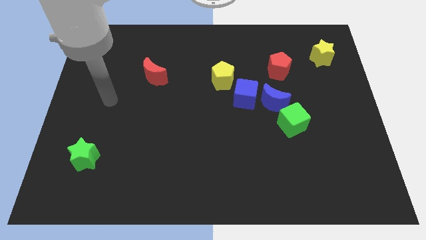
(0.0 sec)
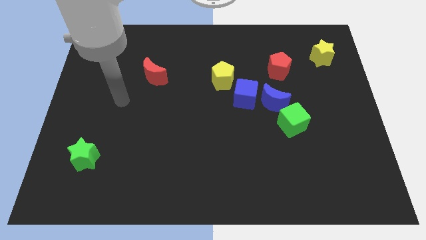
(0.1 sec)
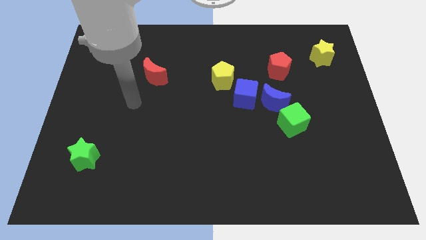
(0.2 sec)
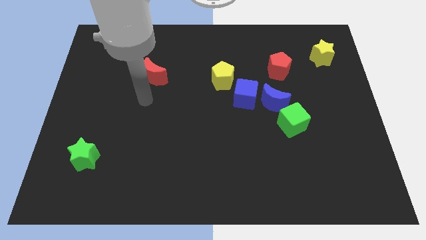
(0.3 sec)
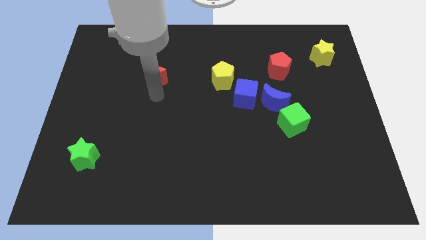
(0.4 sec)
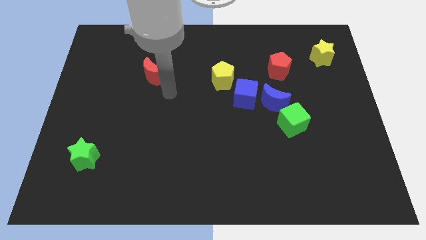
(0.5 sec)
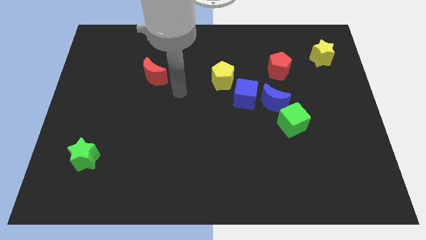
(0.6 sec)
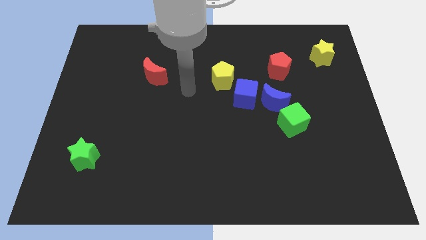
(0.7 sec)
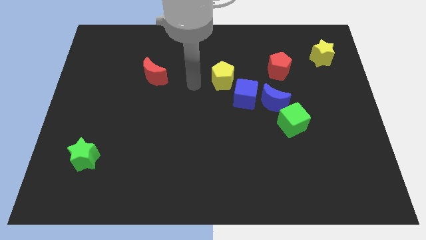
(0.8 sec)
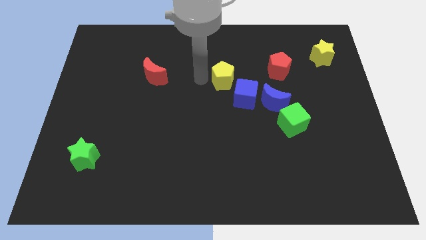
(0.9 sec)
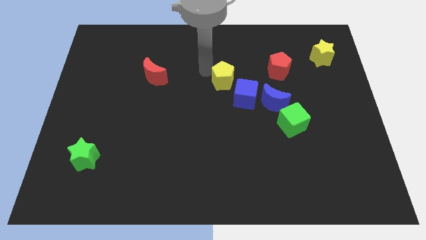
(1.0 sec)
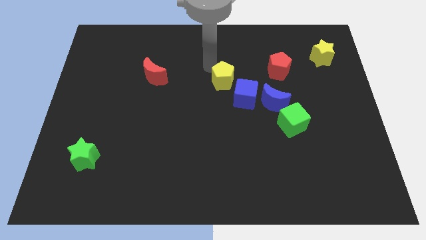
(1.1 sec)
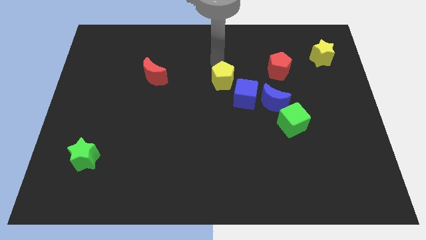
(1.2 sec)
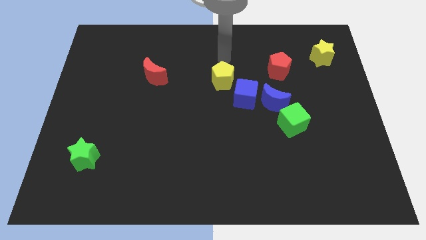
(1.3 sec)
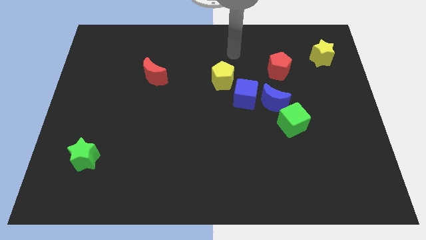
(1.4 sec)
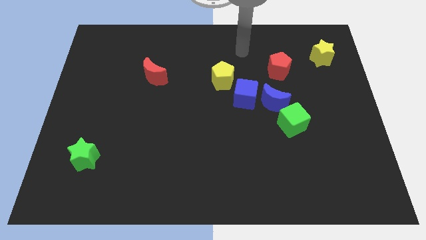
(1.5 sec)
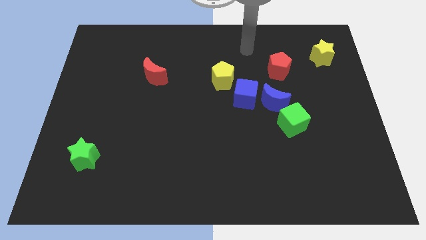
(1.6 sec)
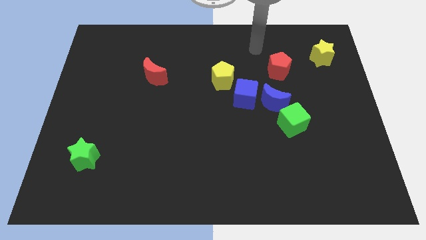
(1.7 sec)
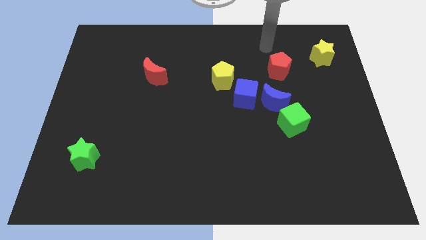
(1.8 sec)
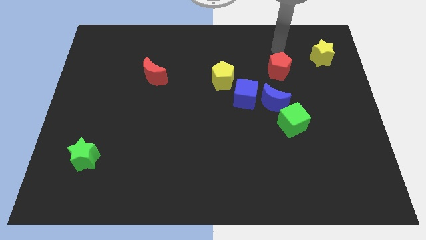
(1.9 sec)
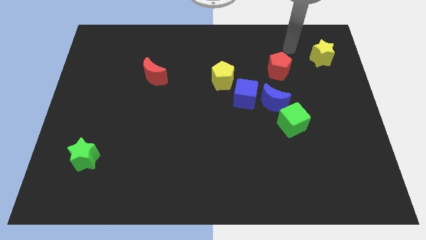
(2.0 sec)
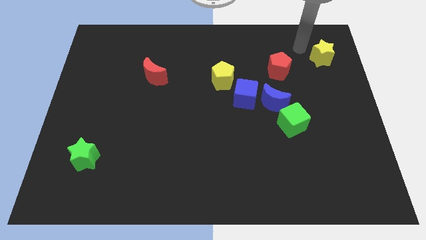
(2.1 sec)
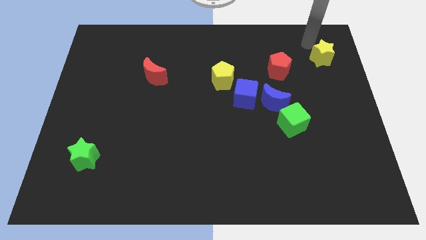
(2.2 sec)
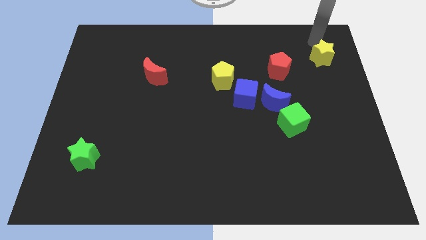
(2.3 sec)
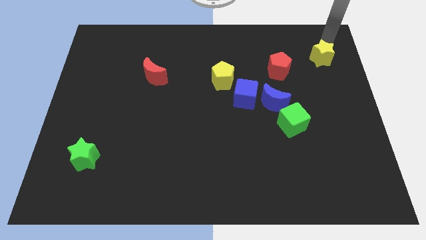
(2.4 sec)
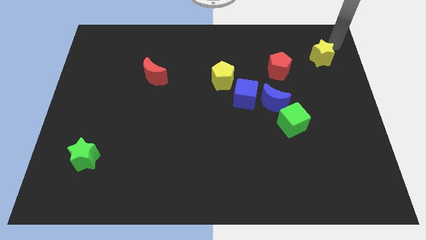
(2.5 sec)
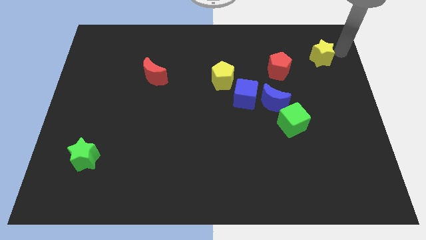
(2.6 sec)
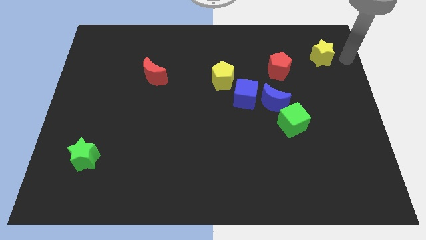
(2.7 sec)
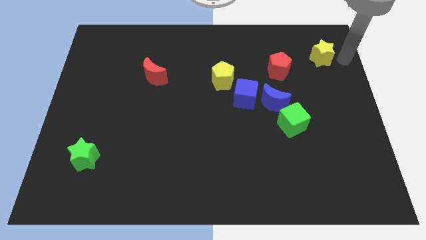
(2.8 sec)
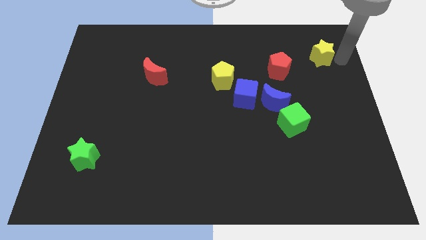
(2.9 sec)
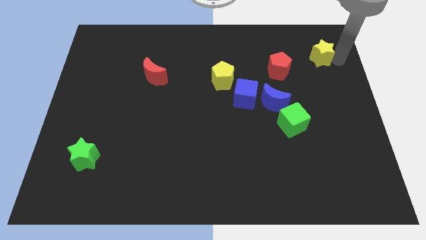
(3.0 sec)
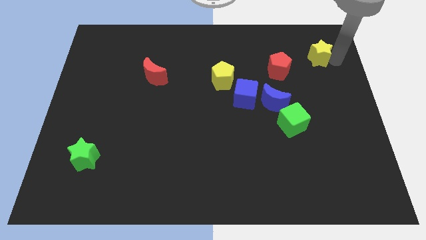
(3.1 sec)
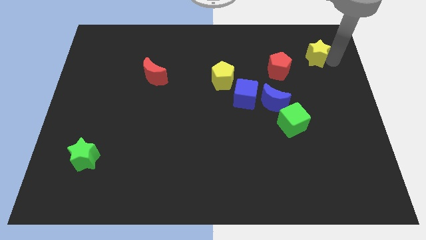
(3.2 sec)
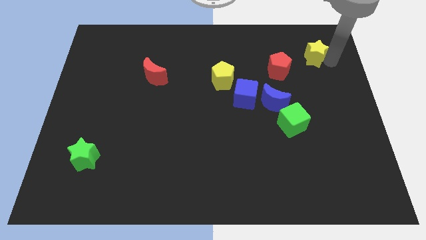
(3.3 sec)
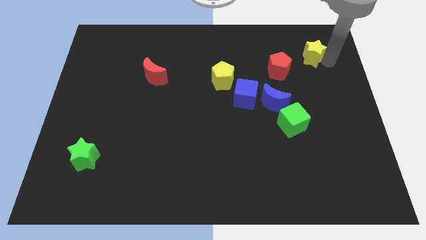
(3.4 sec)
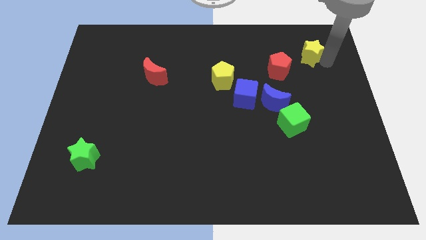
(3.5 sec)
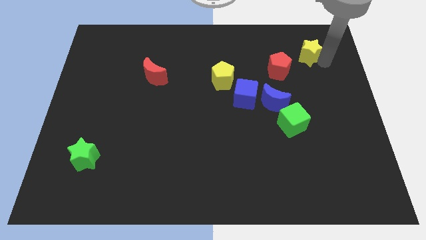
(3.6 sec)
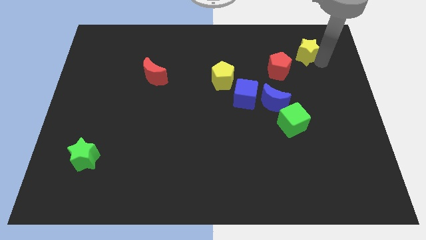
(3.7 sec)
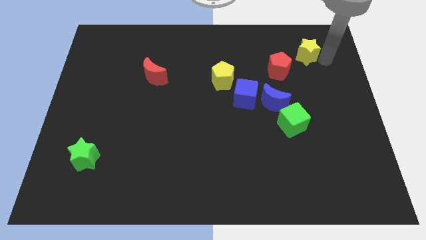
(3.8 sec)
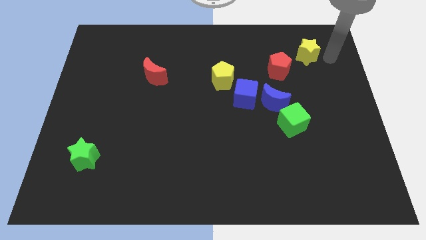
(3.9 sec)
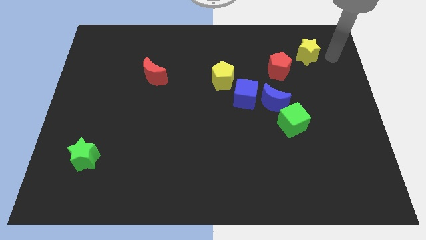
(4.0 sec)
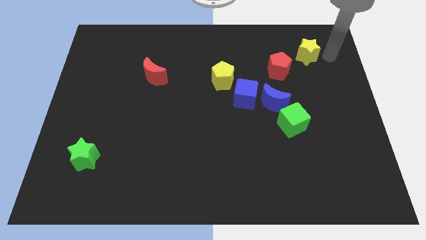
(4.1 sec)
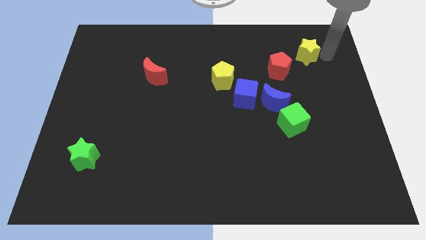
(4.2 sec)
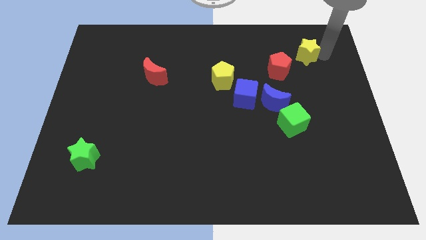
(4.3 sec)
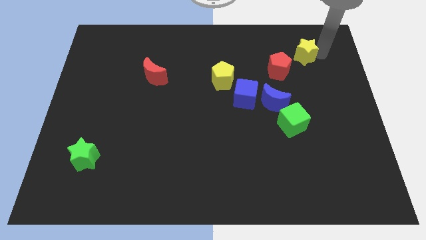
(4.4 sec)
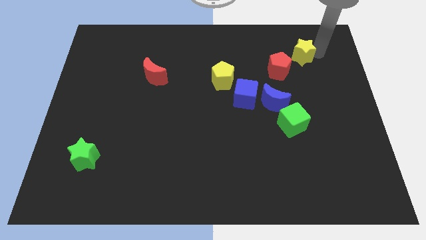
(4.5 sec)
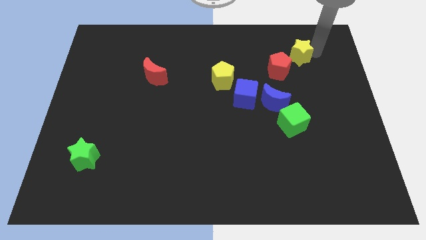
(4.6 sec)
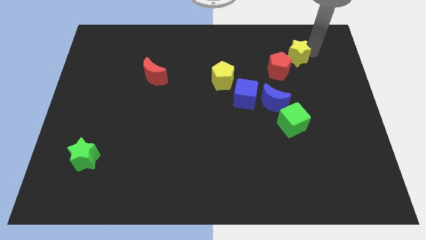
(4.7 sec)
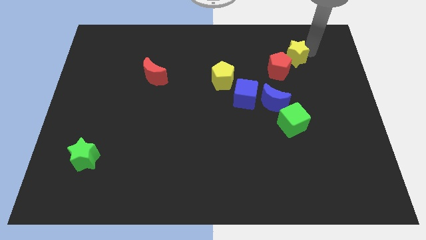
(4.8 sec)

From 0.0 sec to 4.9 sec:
push the yellow star a bit to the left

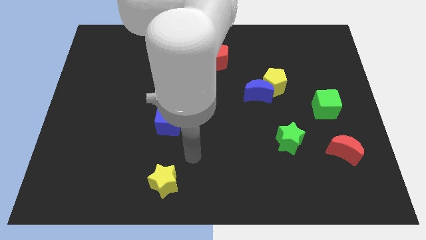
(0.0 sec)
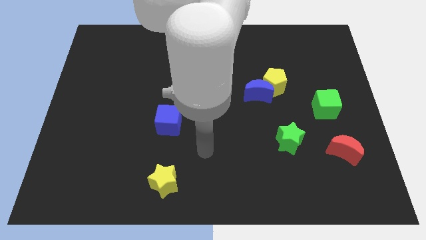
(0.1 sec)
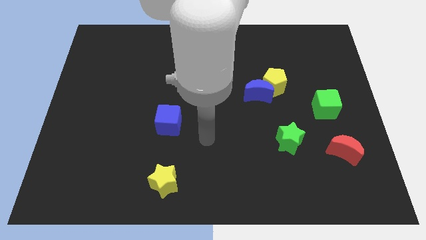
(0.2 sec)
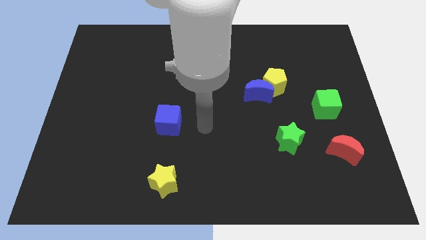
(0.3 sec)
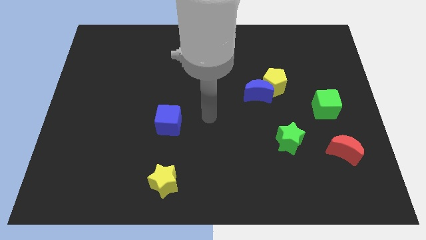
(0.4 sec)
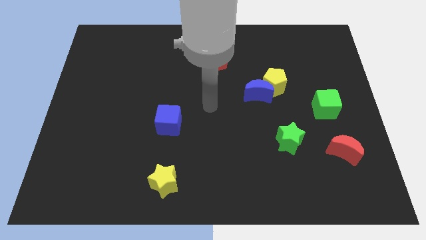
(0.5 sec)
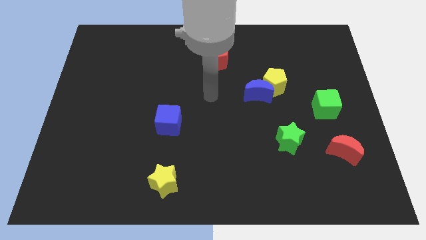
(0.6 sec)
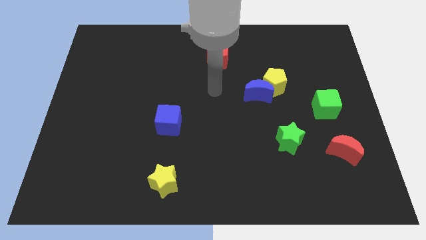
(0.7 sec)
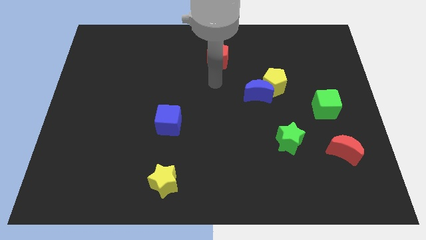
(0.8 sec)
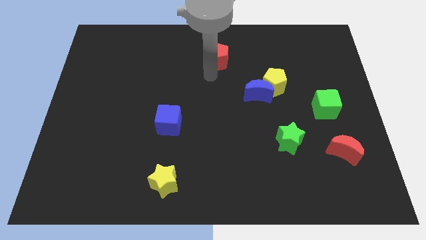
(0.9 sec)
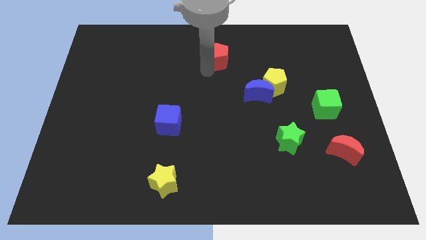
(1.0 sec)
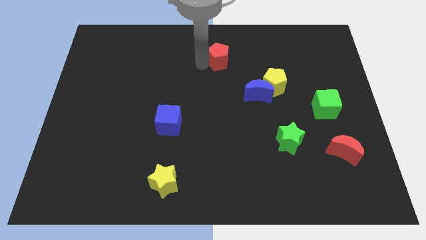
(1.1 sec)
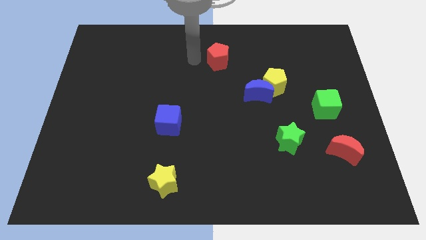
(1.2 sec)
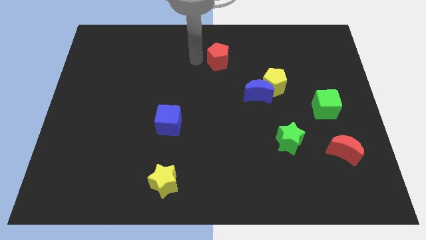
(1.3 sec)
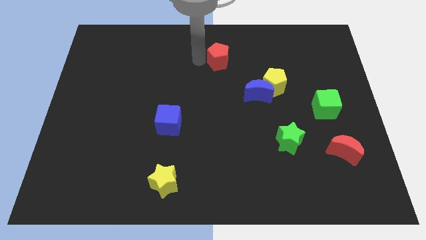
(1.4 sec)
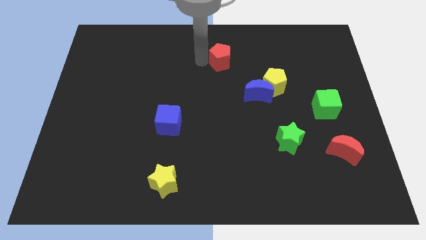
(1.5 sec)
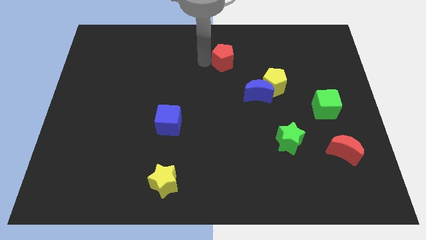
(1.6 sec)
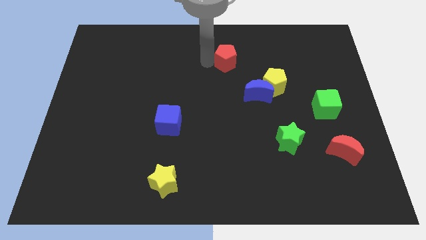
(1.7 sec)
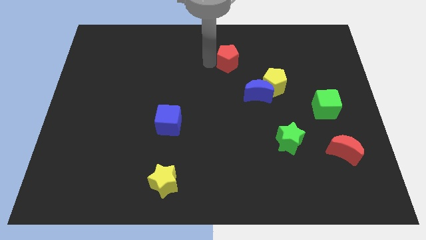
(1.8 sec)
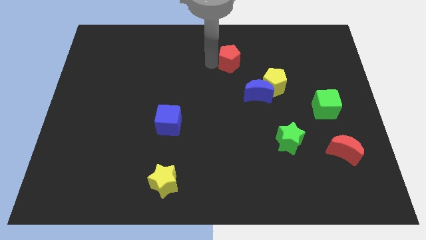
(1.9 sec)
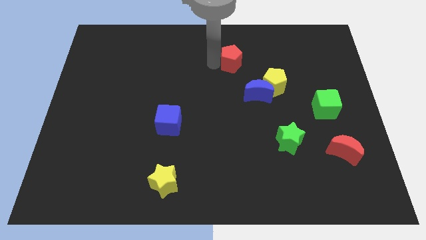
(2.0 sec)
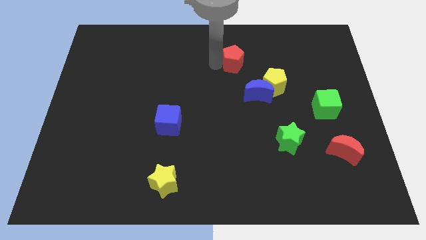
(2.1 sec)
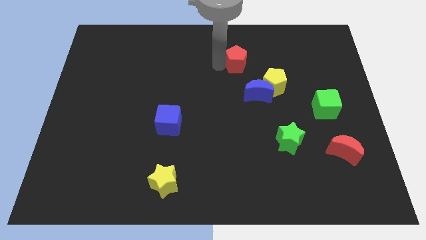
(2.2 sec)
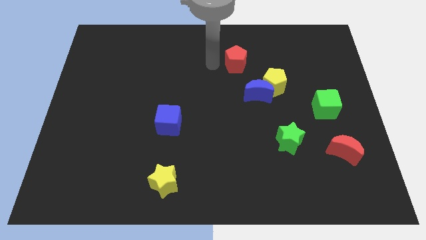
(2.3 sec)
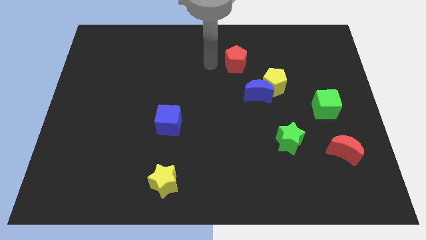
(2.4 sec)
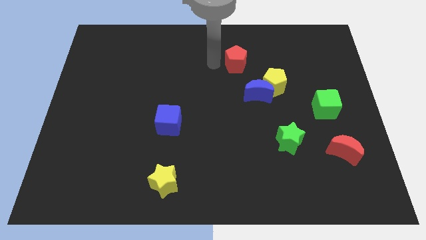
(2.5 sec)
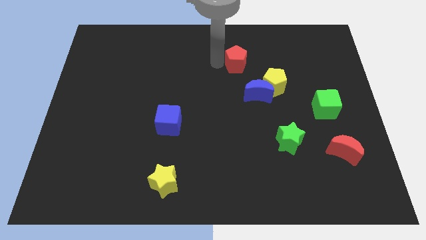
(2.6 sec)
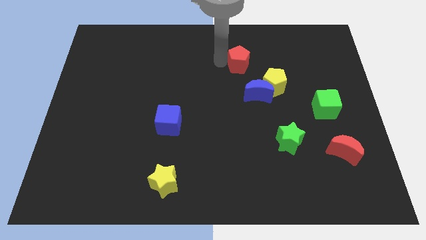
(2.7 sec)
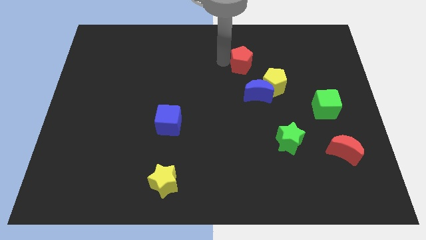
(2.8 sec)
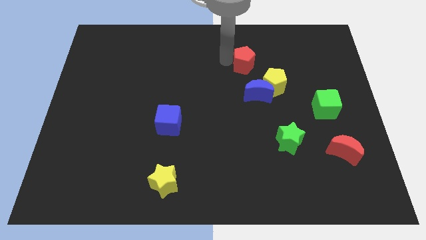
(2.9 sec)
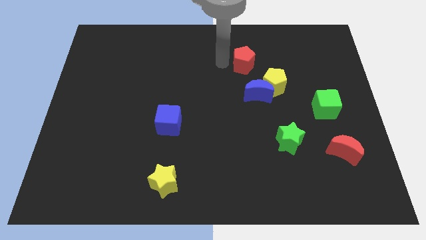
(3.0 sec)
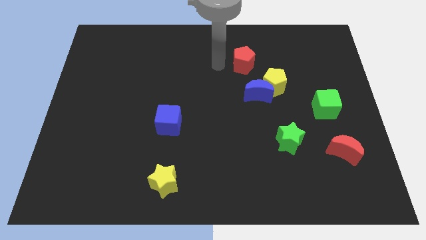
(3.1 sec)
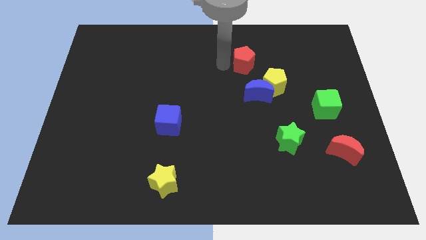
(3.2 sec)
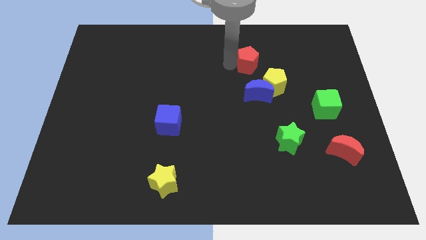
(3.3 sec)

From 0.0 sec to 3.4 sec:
slightly push the red pentagon right

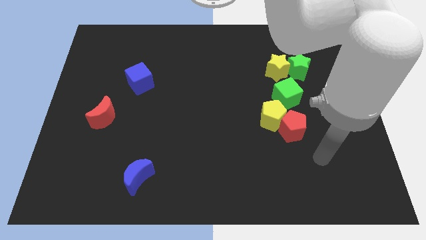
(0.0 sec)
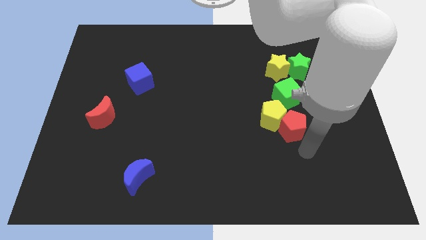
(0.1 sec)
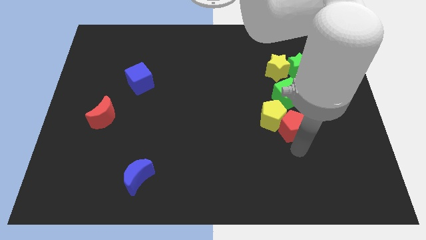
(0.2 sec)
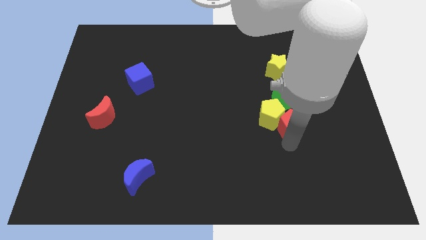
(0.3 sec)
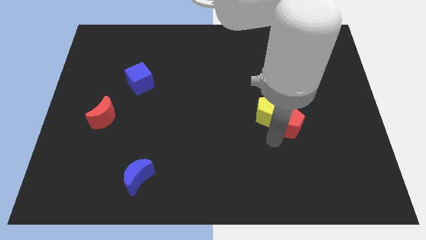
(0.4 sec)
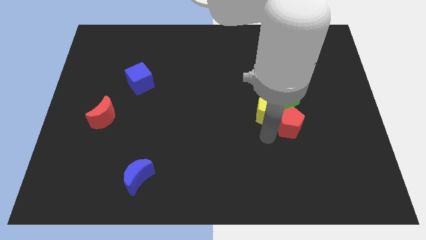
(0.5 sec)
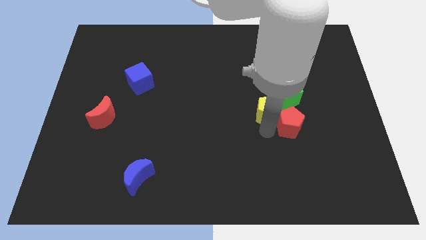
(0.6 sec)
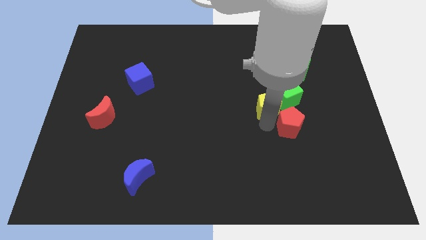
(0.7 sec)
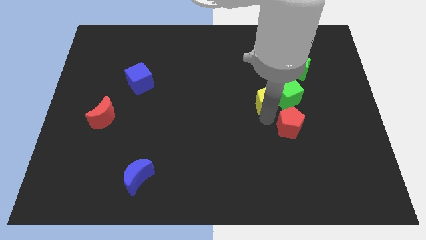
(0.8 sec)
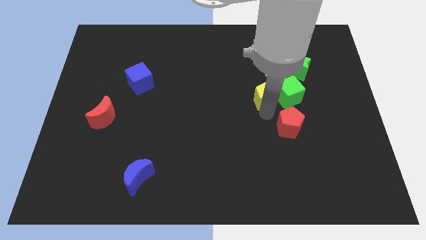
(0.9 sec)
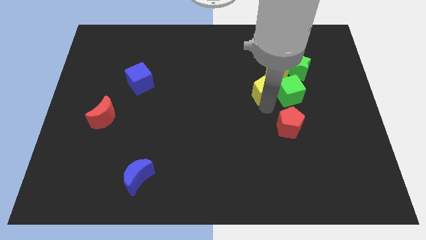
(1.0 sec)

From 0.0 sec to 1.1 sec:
push the yellow pentagon a bit upwards
